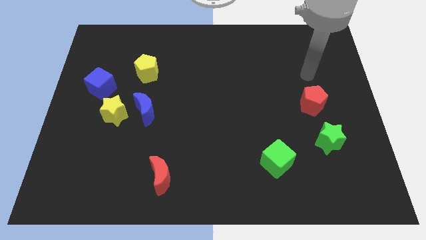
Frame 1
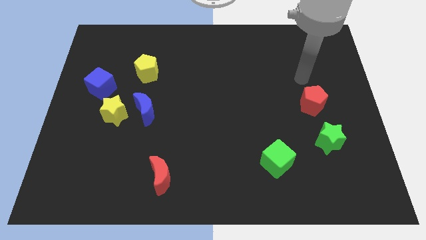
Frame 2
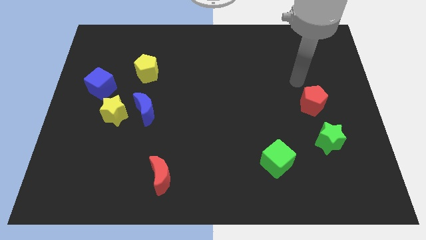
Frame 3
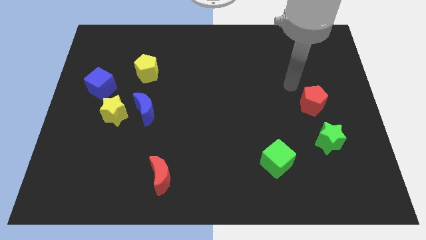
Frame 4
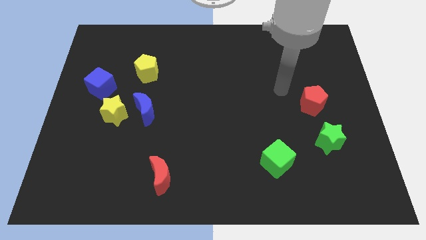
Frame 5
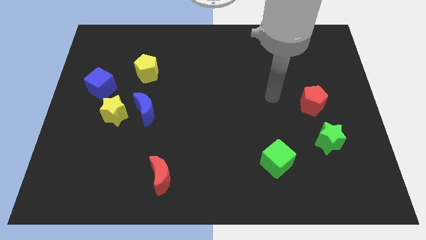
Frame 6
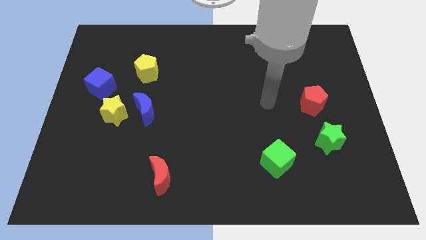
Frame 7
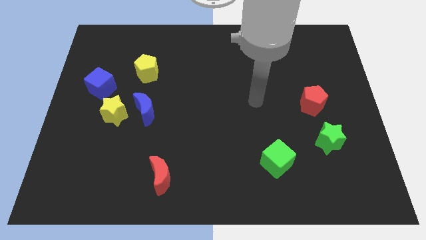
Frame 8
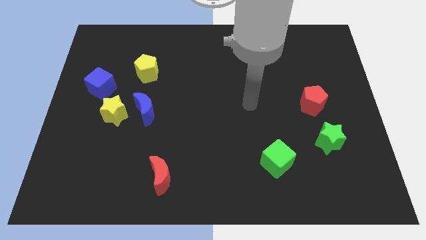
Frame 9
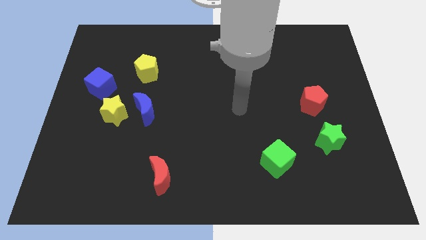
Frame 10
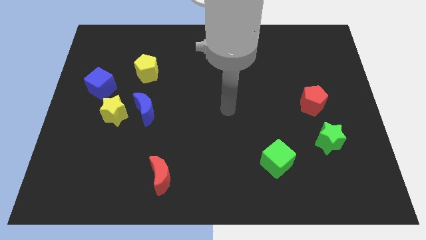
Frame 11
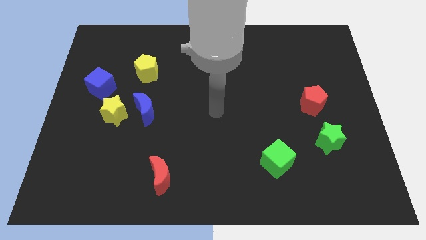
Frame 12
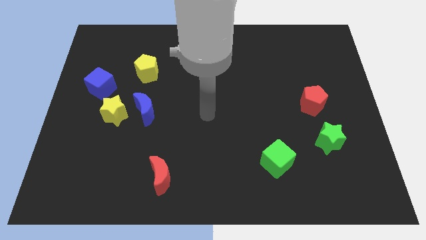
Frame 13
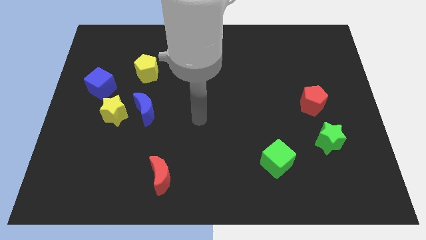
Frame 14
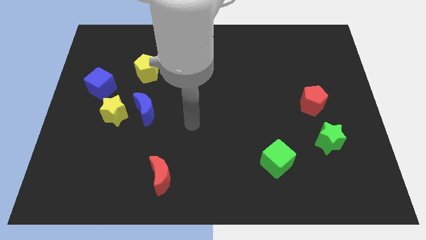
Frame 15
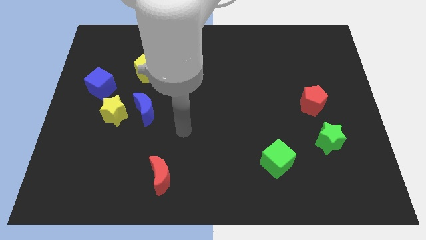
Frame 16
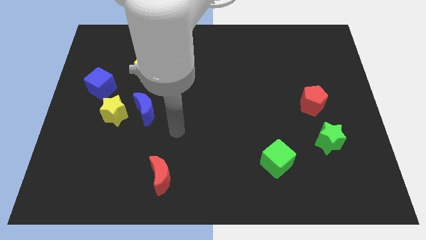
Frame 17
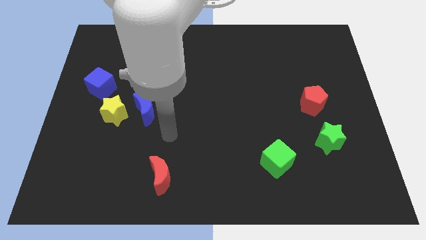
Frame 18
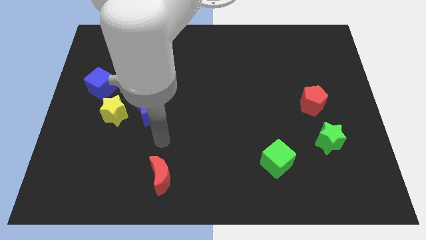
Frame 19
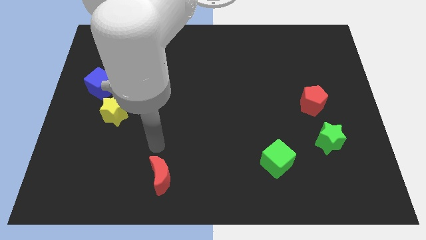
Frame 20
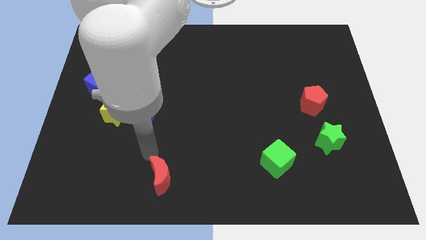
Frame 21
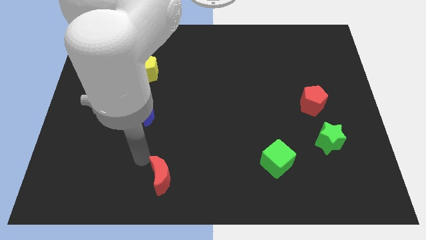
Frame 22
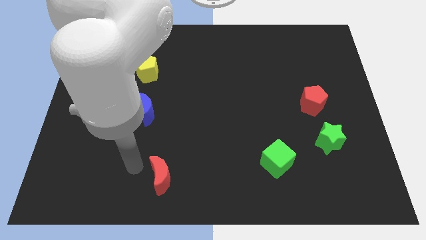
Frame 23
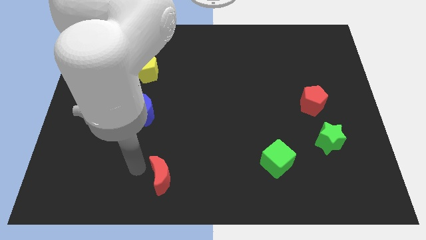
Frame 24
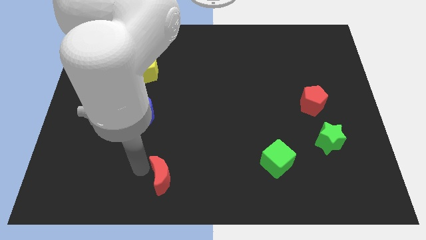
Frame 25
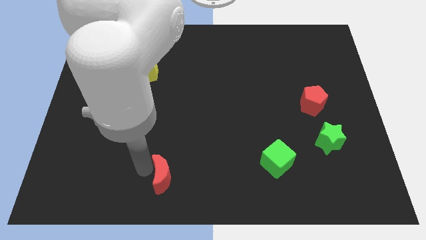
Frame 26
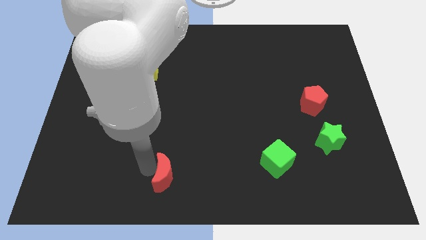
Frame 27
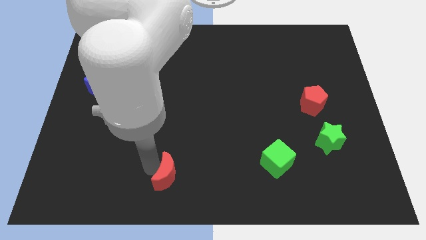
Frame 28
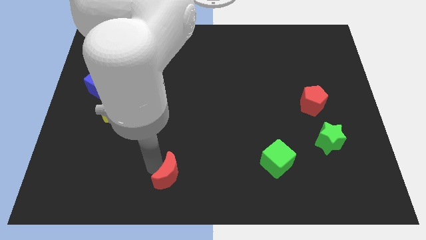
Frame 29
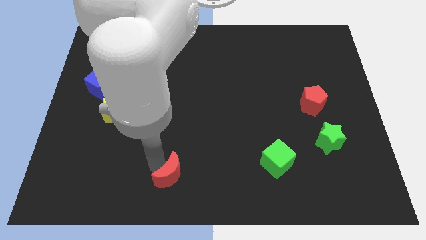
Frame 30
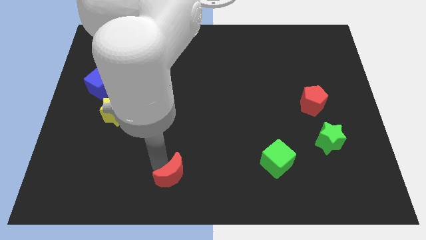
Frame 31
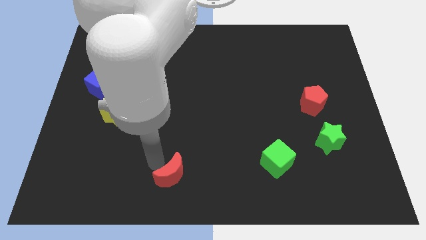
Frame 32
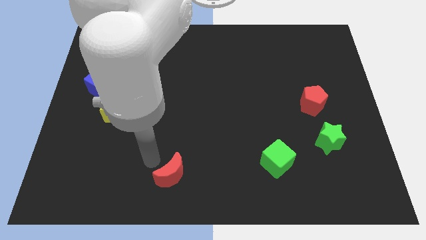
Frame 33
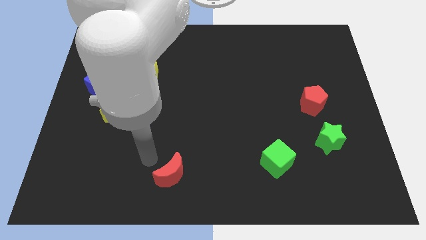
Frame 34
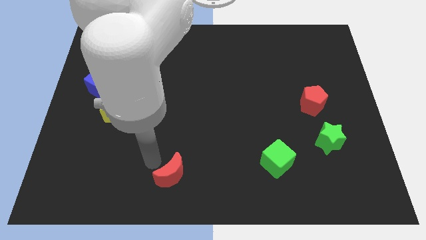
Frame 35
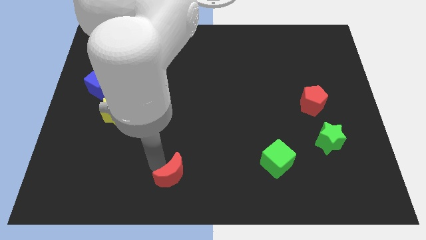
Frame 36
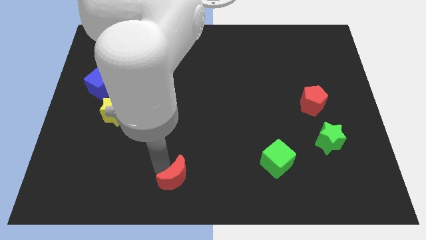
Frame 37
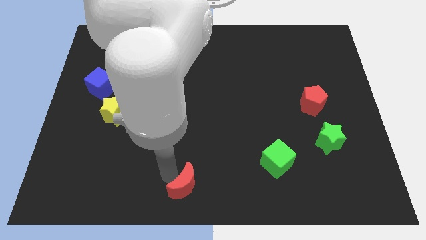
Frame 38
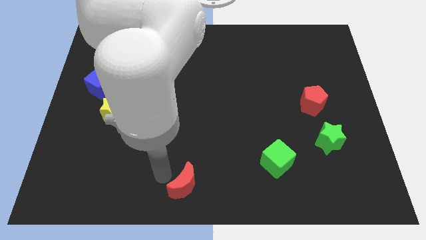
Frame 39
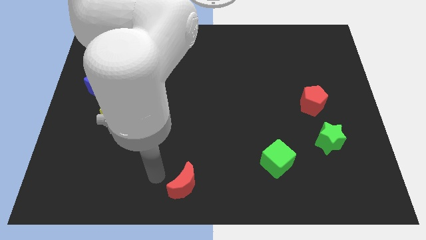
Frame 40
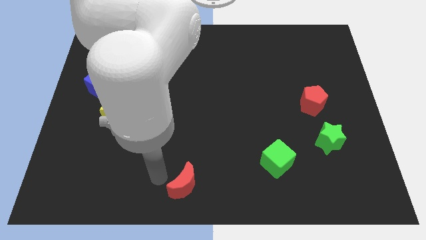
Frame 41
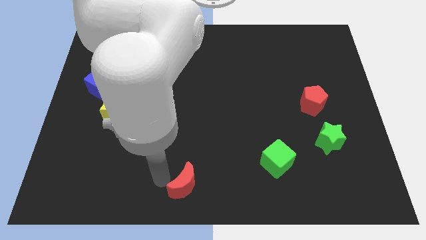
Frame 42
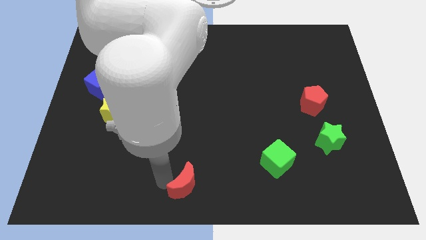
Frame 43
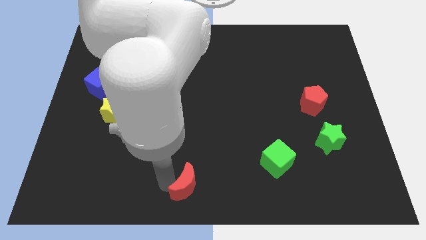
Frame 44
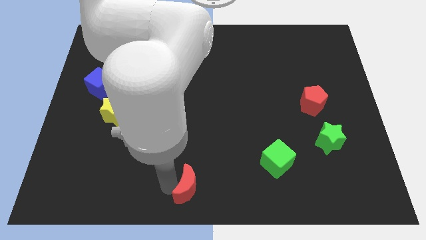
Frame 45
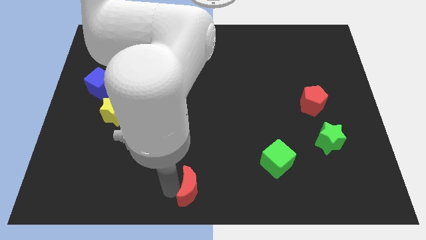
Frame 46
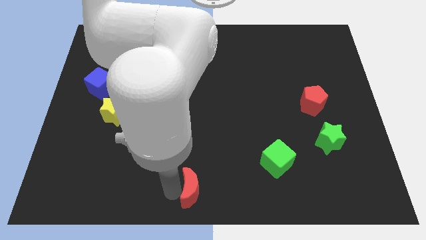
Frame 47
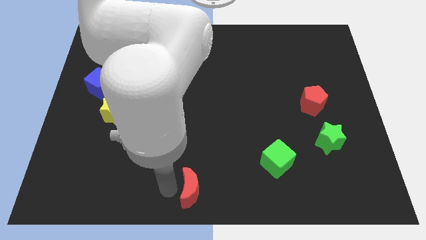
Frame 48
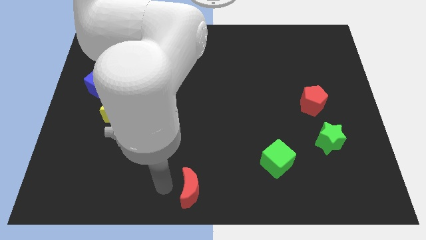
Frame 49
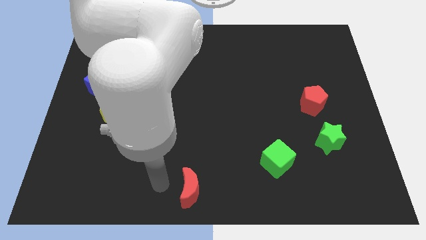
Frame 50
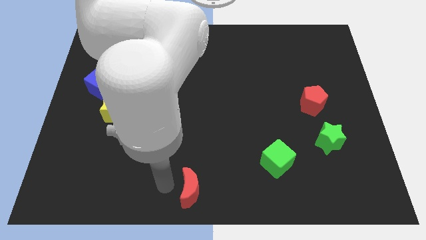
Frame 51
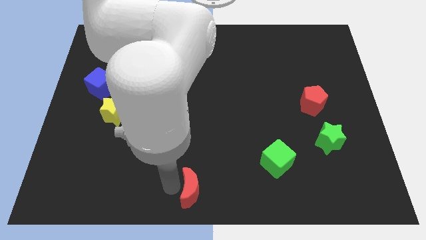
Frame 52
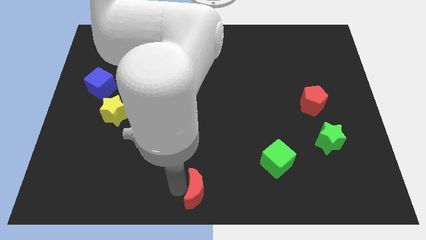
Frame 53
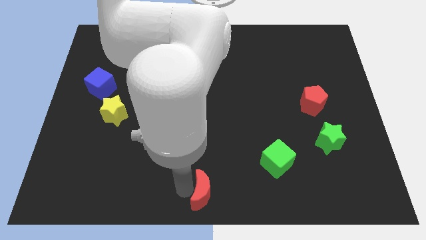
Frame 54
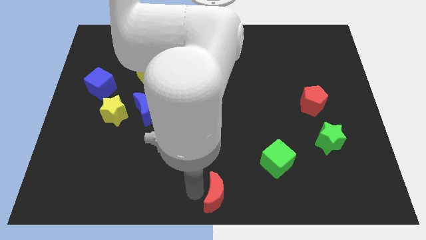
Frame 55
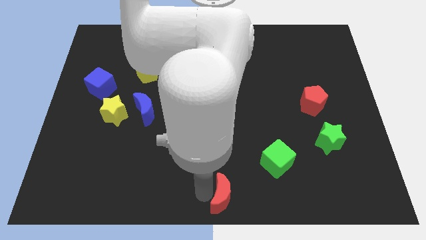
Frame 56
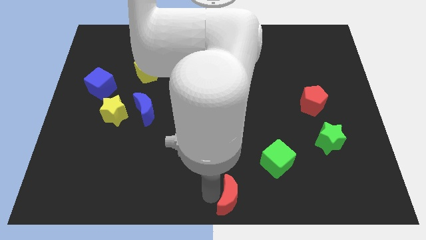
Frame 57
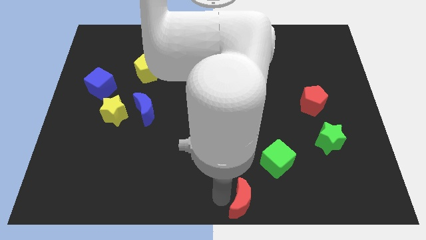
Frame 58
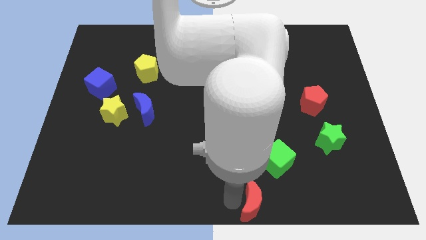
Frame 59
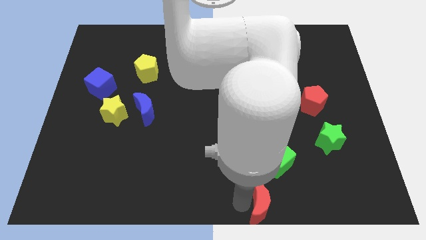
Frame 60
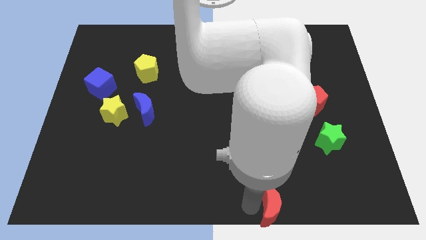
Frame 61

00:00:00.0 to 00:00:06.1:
push the red moon right

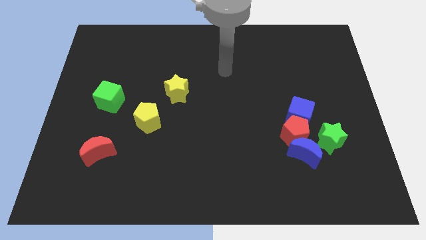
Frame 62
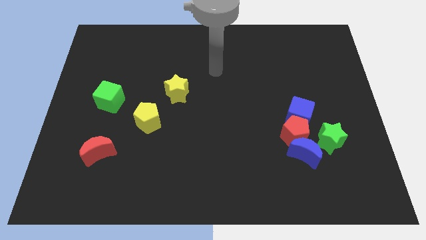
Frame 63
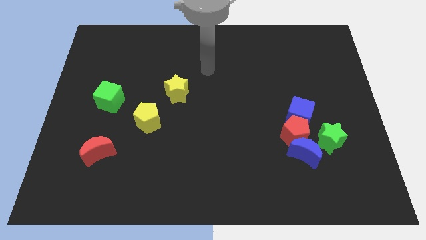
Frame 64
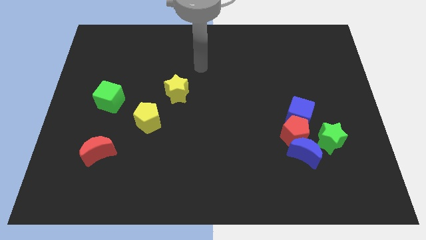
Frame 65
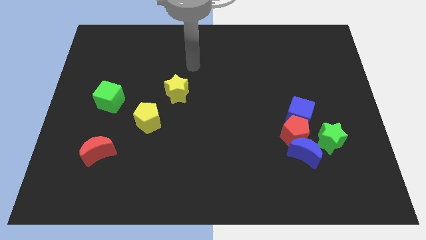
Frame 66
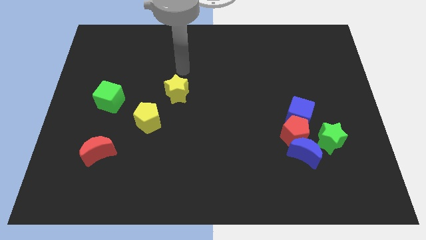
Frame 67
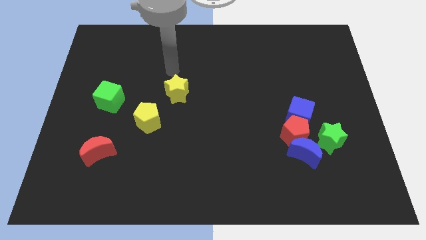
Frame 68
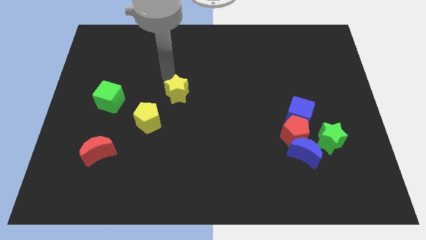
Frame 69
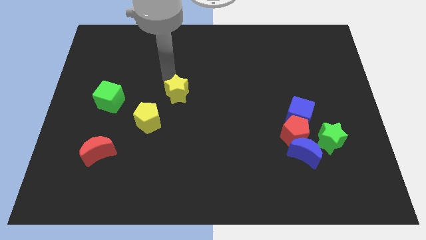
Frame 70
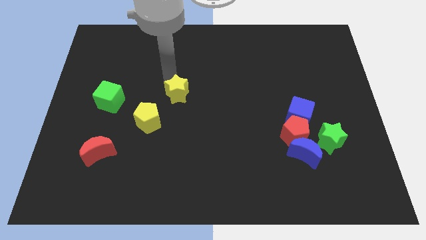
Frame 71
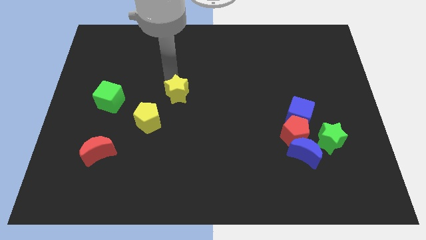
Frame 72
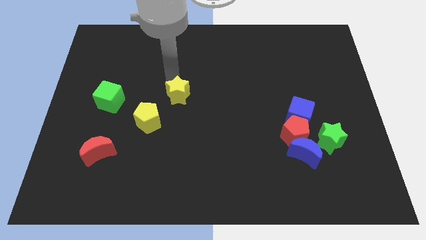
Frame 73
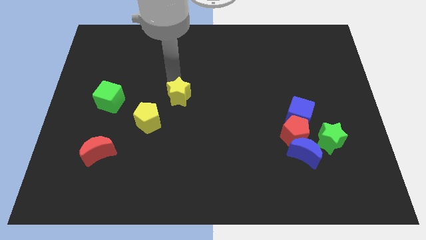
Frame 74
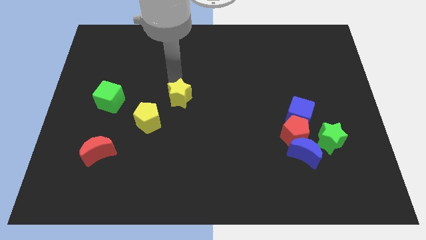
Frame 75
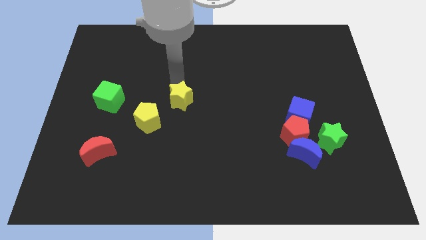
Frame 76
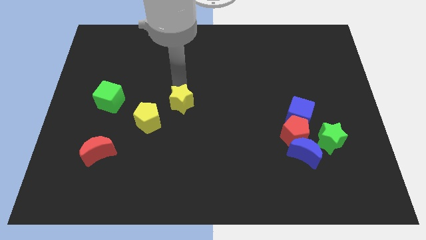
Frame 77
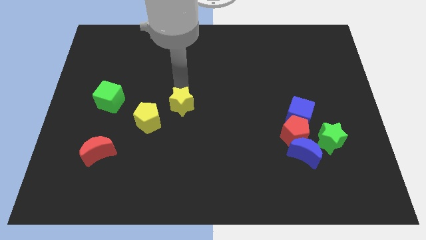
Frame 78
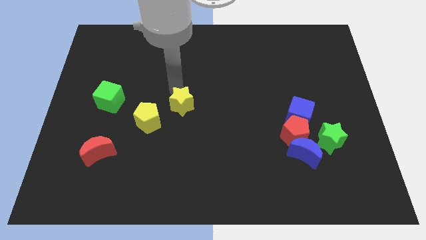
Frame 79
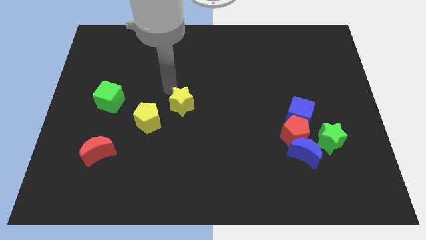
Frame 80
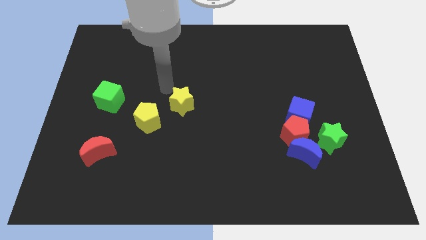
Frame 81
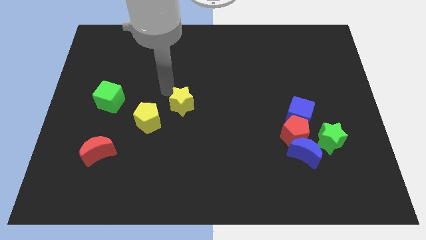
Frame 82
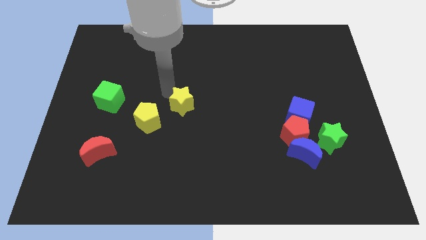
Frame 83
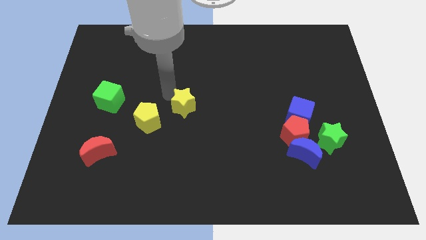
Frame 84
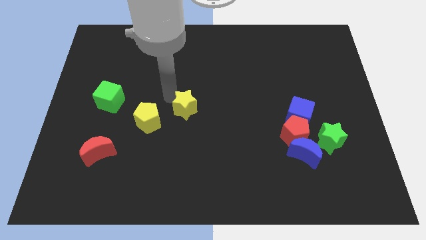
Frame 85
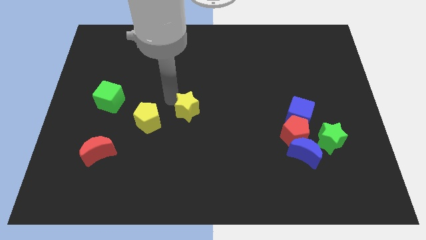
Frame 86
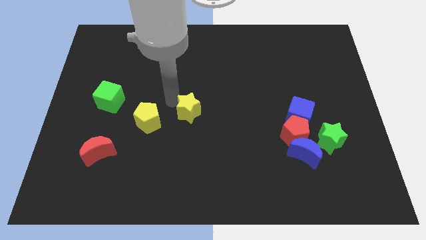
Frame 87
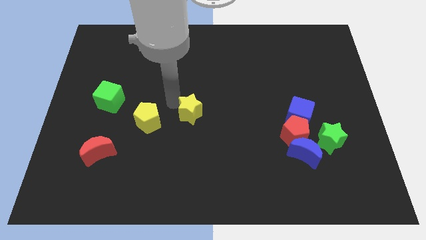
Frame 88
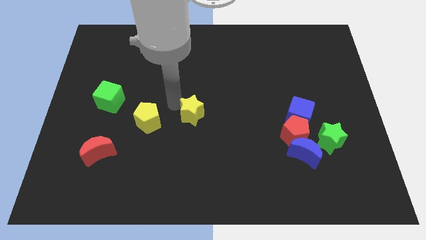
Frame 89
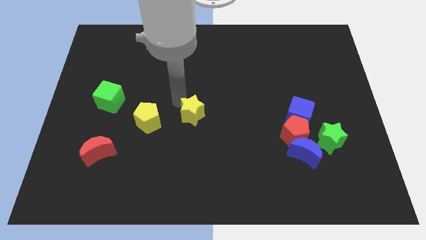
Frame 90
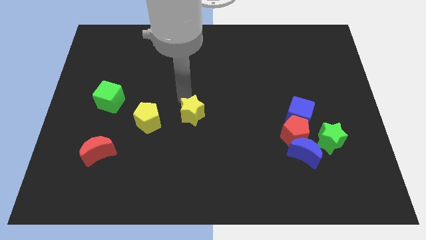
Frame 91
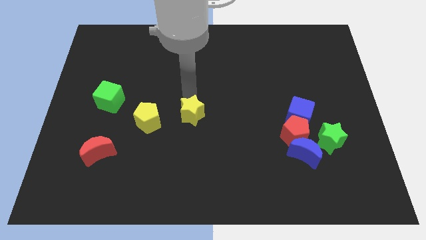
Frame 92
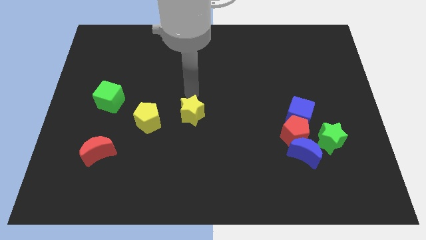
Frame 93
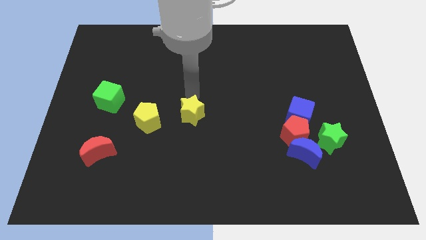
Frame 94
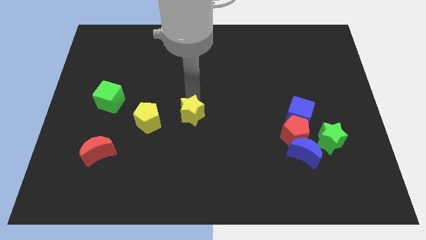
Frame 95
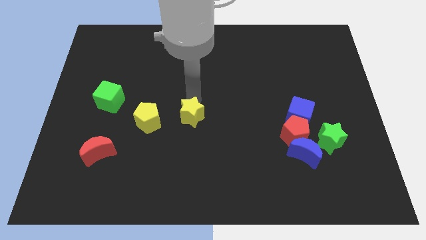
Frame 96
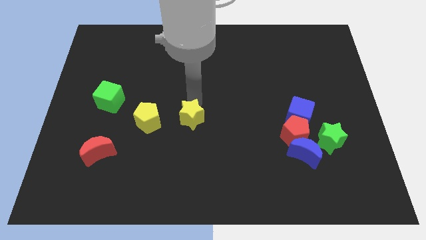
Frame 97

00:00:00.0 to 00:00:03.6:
push the yellow star somewhat downwards
